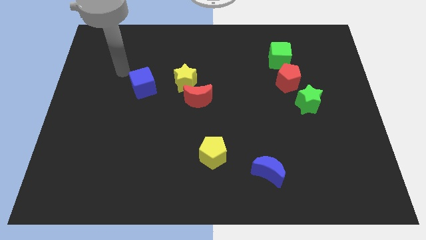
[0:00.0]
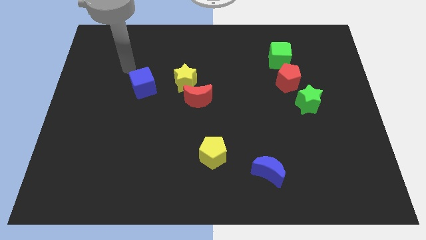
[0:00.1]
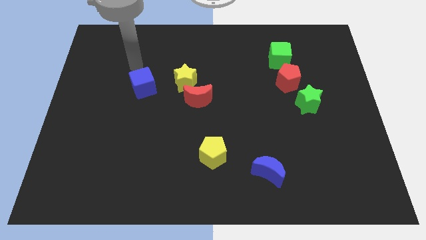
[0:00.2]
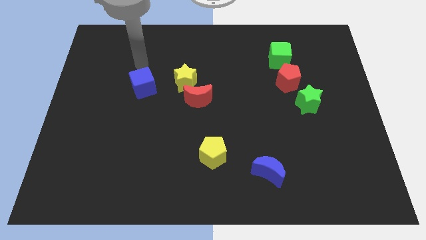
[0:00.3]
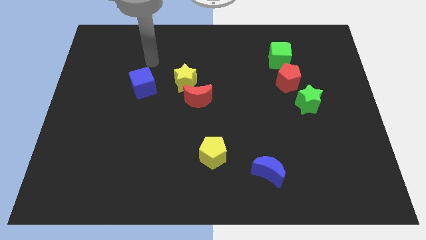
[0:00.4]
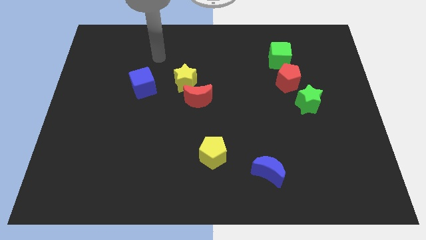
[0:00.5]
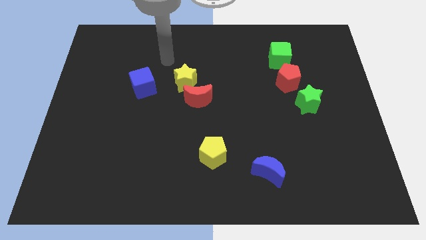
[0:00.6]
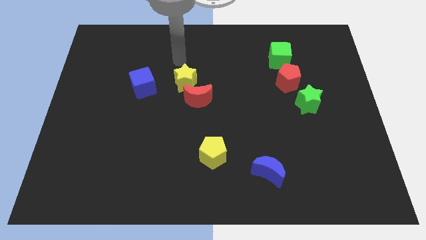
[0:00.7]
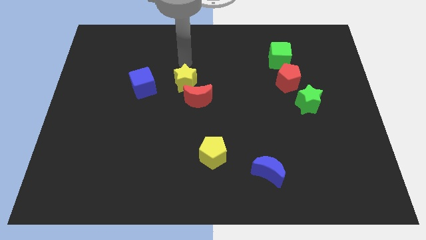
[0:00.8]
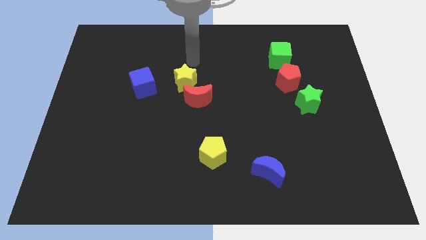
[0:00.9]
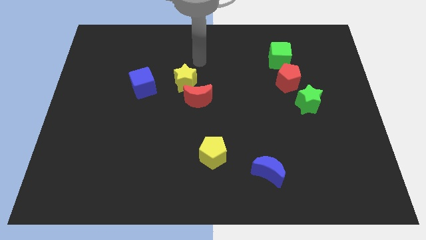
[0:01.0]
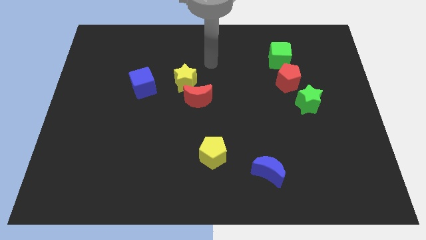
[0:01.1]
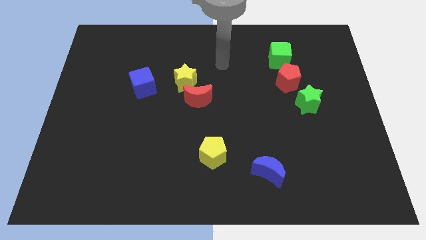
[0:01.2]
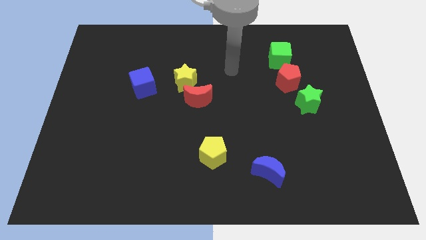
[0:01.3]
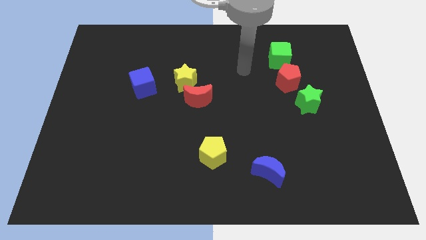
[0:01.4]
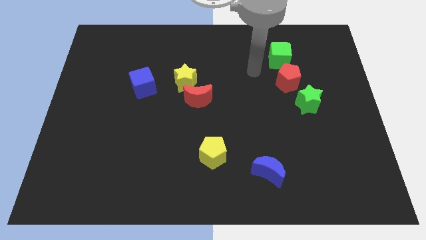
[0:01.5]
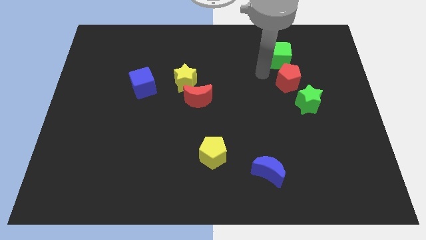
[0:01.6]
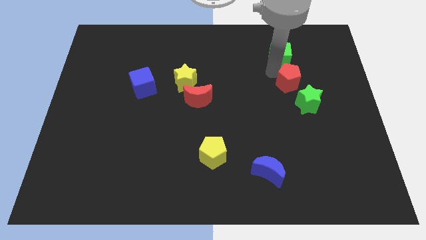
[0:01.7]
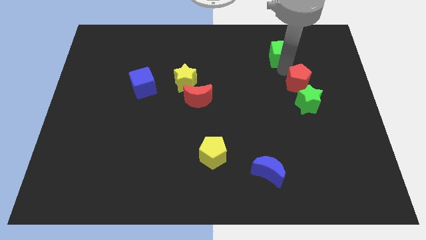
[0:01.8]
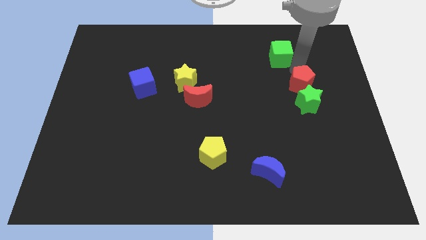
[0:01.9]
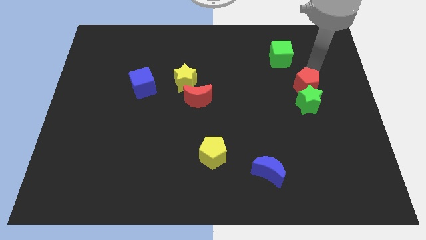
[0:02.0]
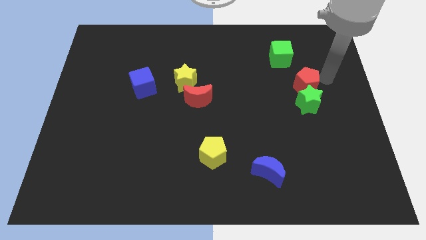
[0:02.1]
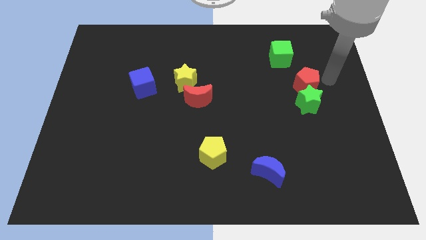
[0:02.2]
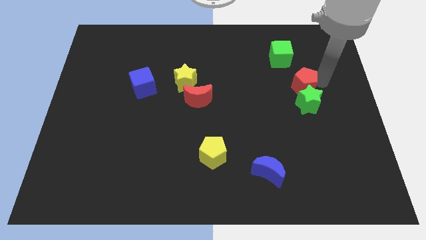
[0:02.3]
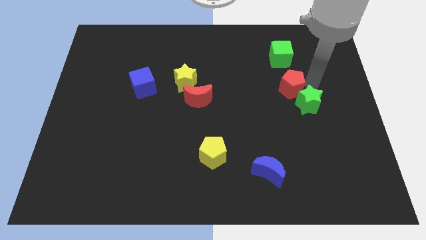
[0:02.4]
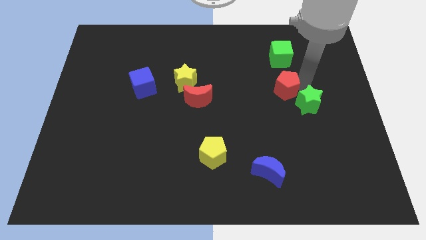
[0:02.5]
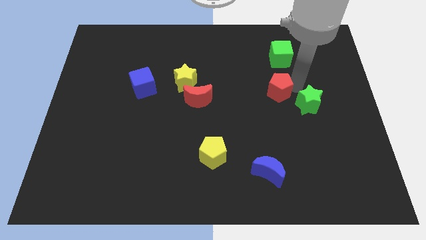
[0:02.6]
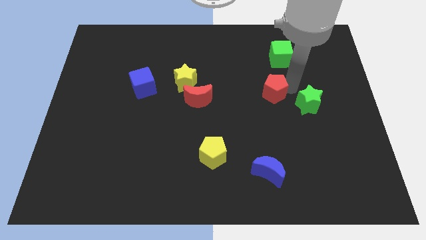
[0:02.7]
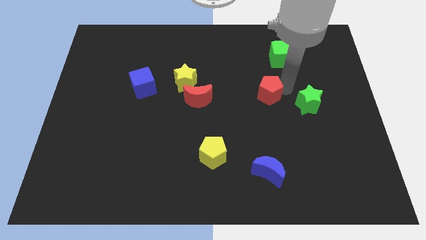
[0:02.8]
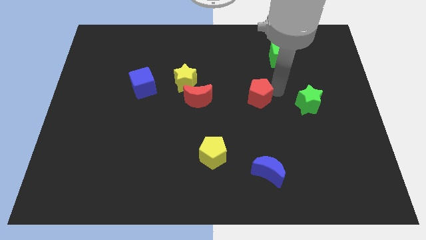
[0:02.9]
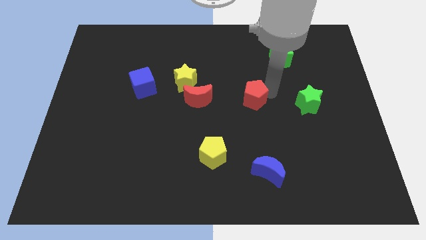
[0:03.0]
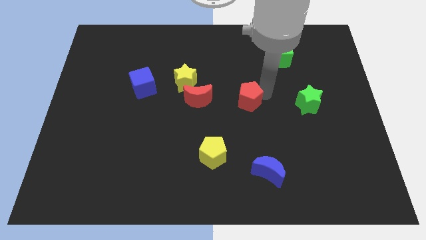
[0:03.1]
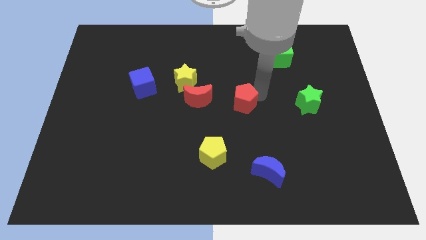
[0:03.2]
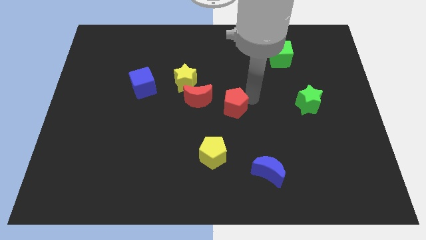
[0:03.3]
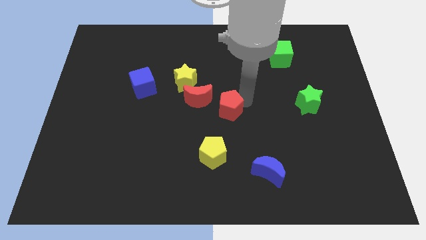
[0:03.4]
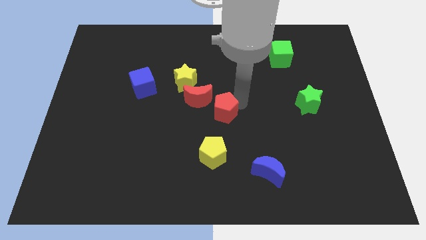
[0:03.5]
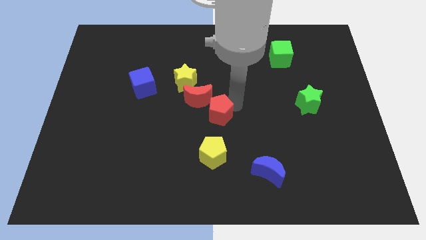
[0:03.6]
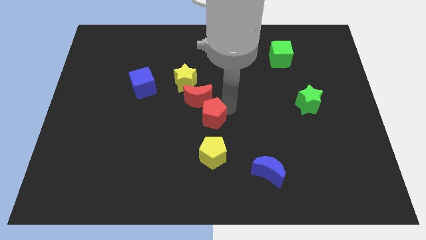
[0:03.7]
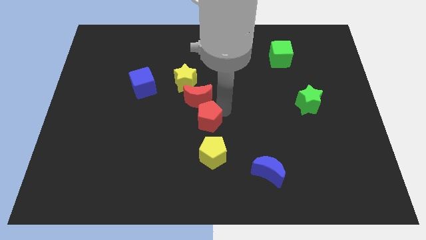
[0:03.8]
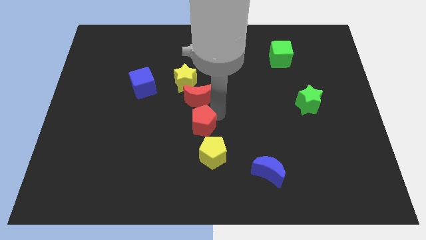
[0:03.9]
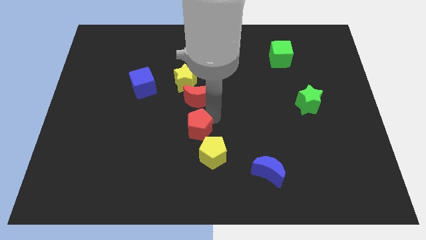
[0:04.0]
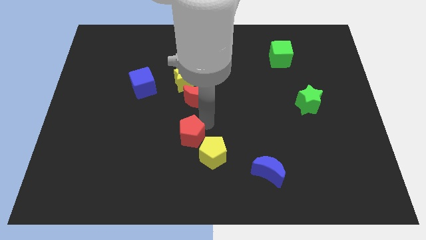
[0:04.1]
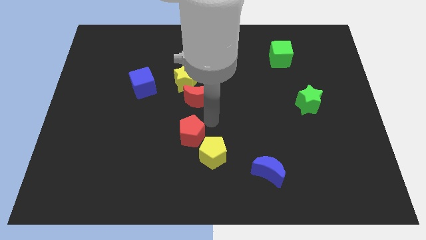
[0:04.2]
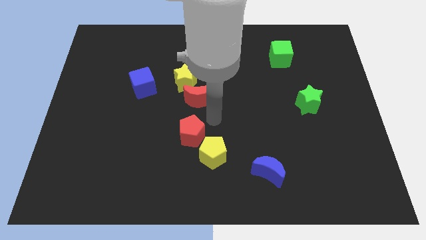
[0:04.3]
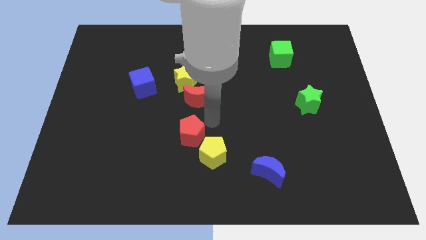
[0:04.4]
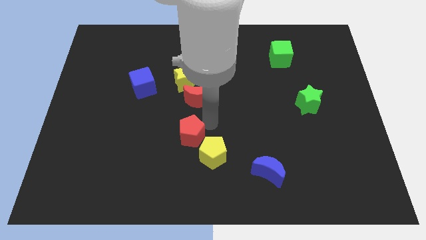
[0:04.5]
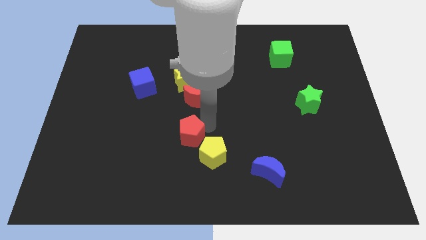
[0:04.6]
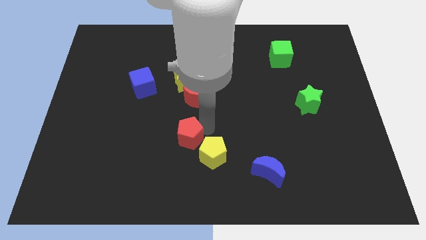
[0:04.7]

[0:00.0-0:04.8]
push the red pentagon left of the yellow pentagon

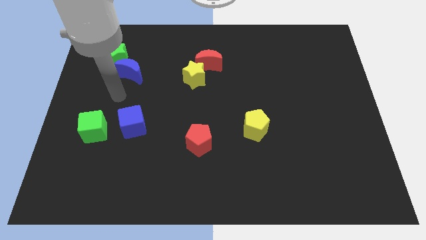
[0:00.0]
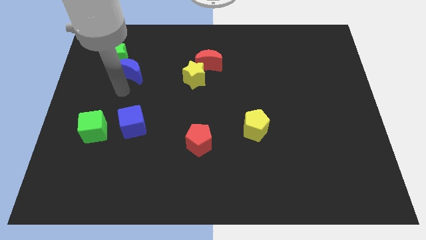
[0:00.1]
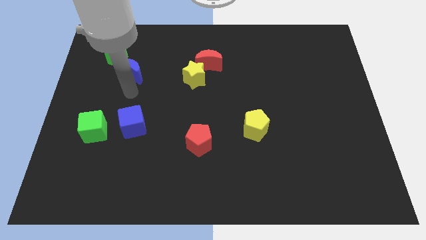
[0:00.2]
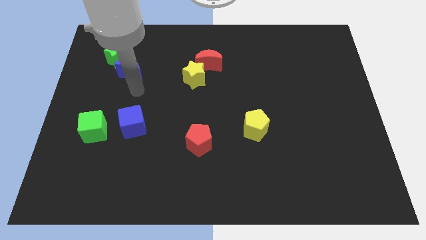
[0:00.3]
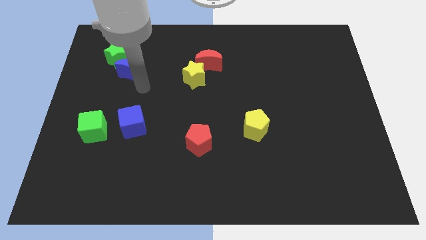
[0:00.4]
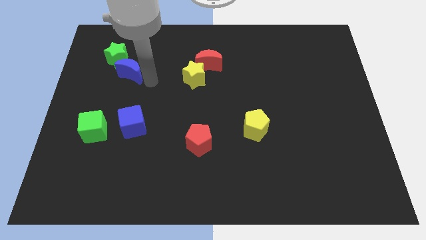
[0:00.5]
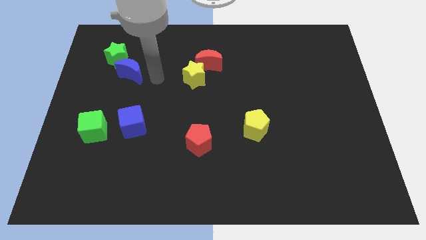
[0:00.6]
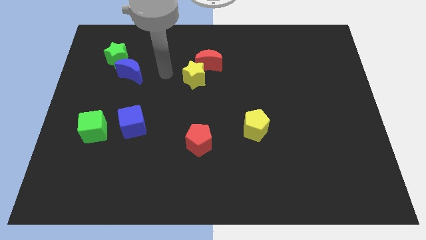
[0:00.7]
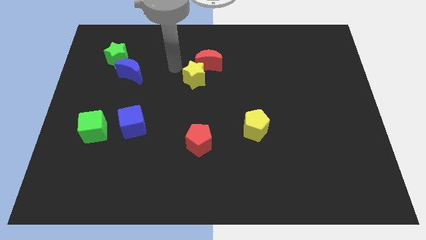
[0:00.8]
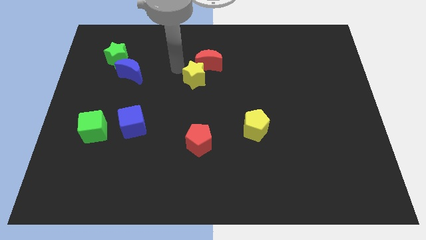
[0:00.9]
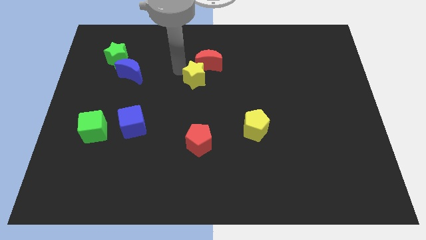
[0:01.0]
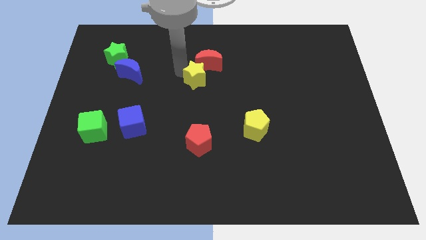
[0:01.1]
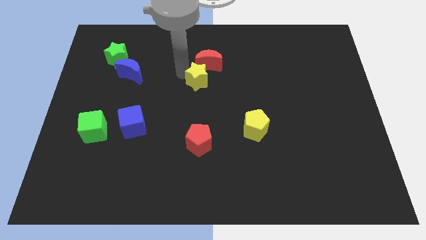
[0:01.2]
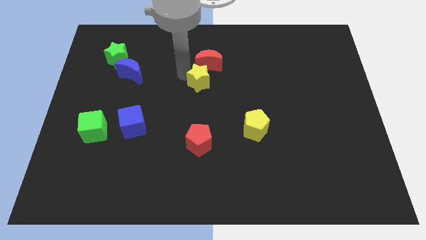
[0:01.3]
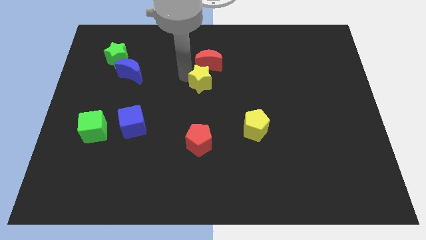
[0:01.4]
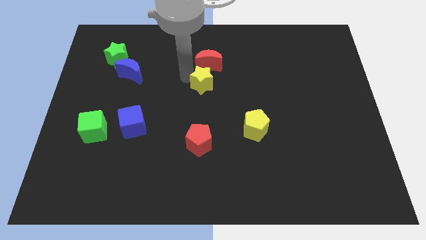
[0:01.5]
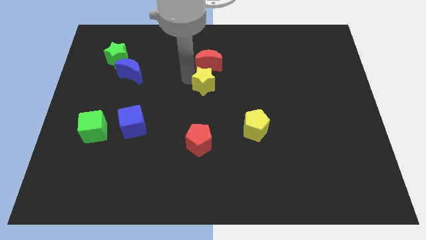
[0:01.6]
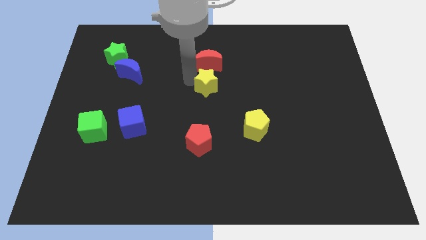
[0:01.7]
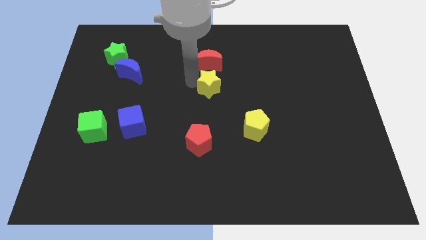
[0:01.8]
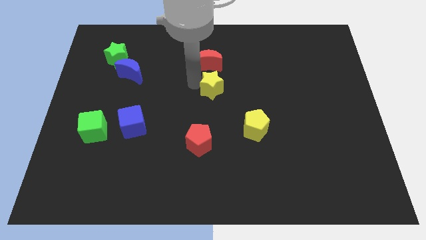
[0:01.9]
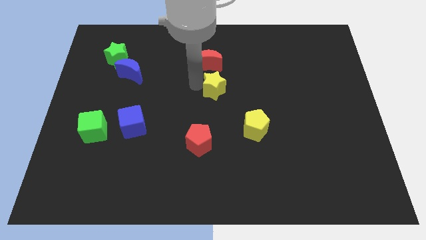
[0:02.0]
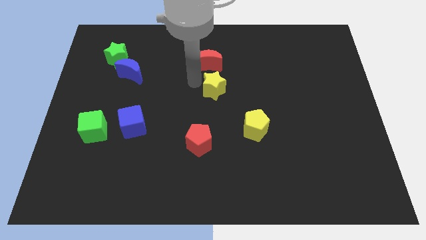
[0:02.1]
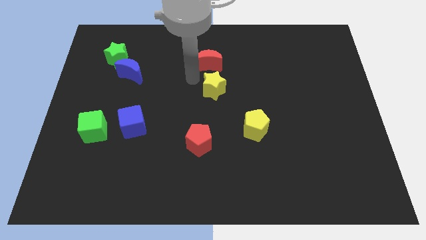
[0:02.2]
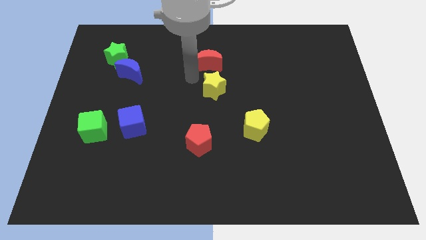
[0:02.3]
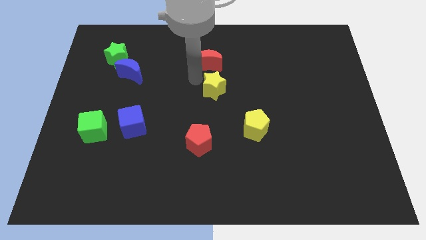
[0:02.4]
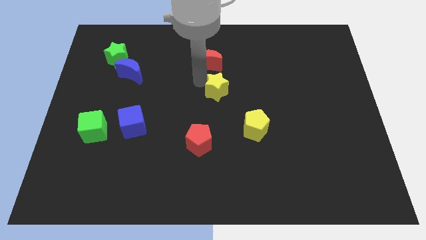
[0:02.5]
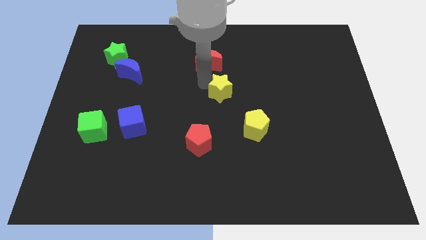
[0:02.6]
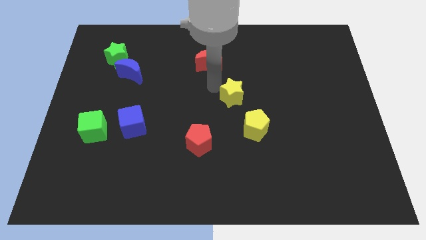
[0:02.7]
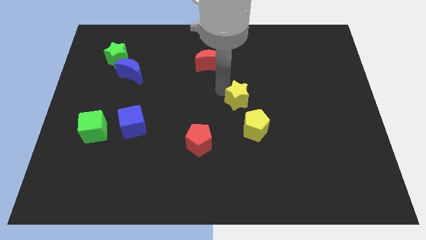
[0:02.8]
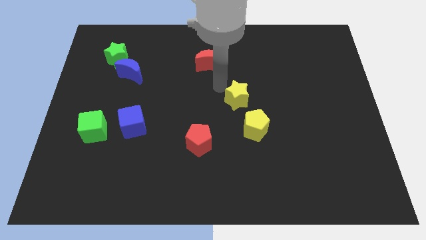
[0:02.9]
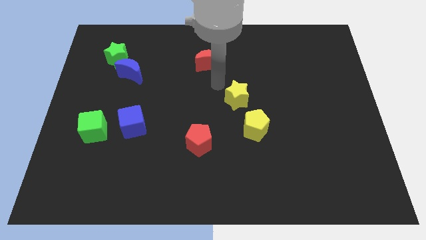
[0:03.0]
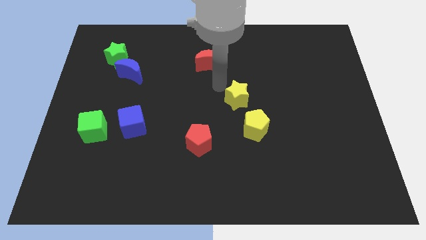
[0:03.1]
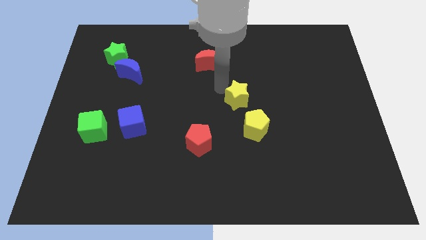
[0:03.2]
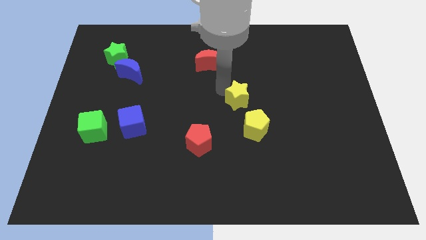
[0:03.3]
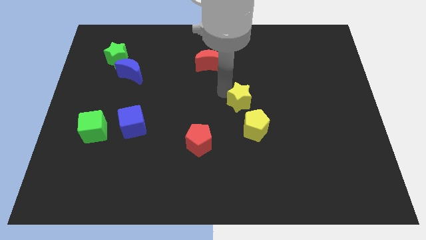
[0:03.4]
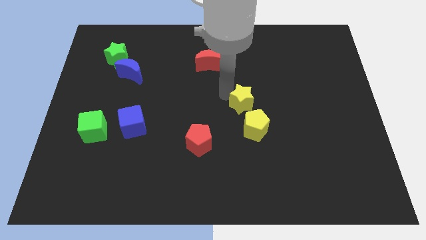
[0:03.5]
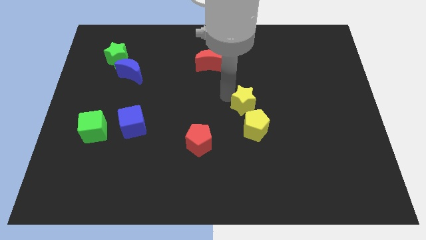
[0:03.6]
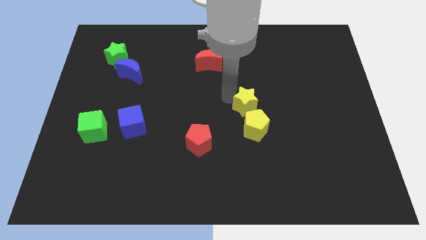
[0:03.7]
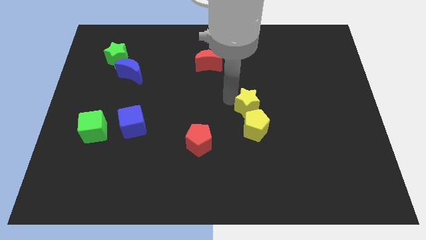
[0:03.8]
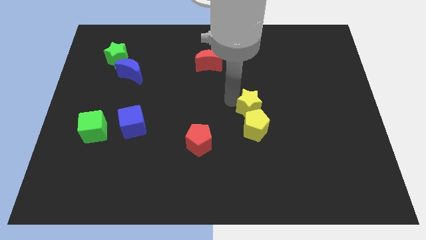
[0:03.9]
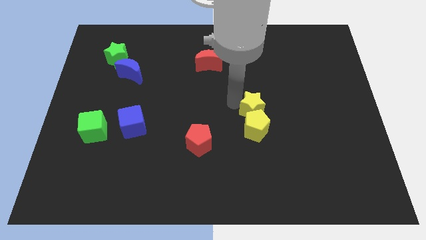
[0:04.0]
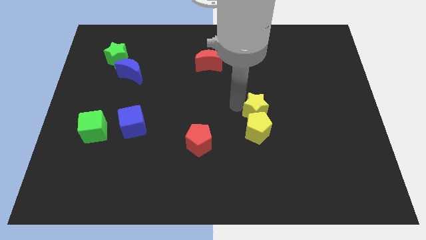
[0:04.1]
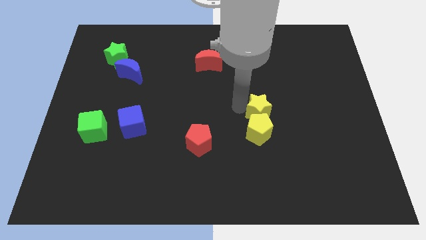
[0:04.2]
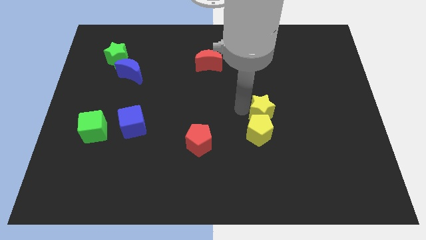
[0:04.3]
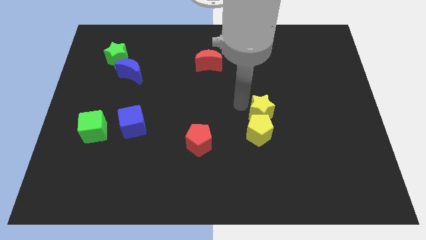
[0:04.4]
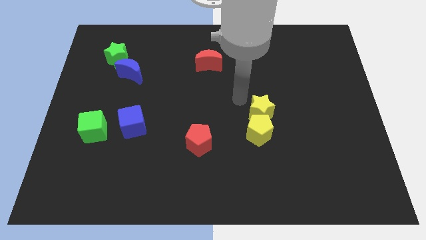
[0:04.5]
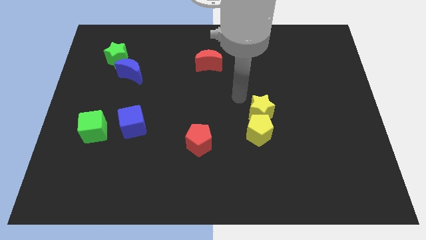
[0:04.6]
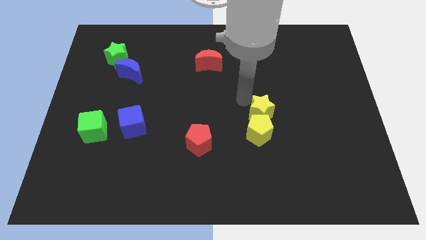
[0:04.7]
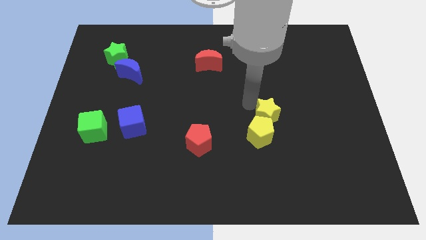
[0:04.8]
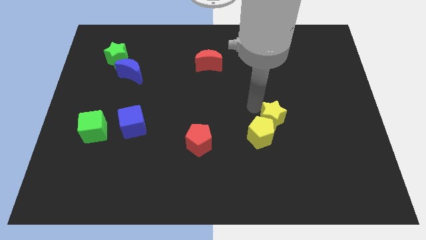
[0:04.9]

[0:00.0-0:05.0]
put the yellow star to the right side of the yellow pentagon
